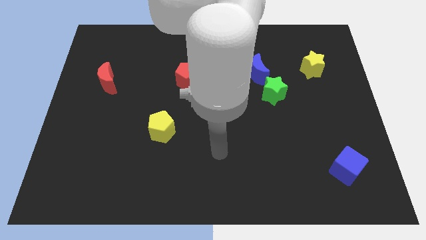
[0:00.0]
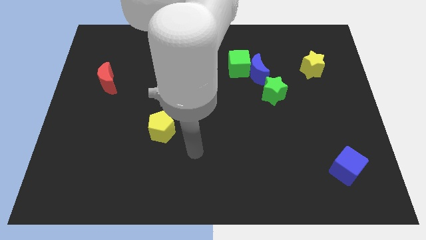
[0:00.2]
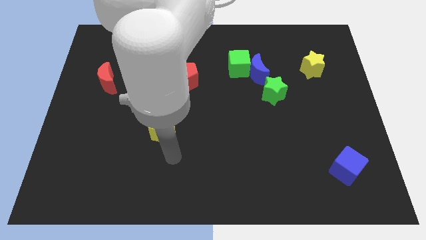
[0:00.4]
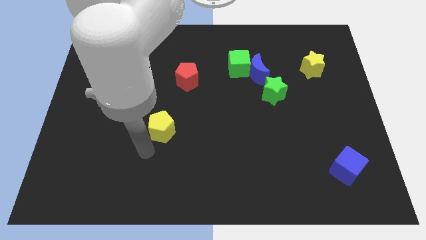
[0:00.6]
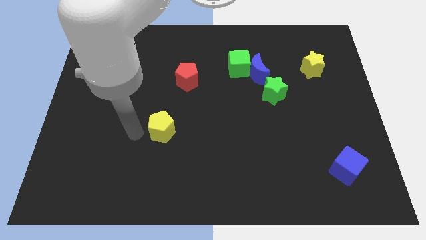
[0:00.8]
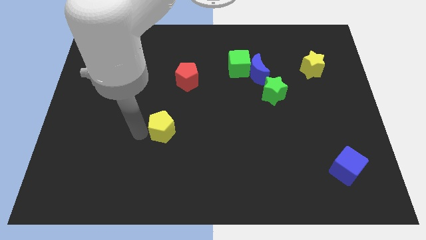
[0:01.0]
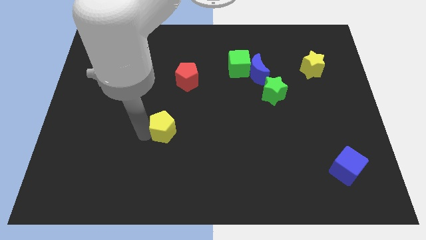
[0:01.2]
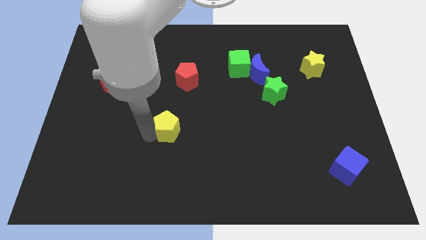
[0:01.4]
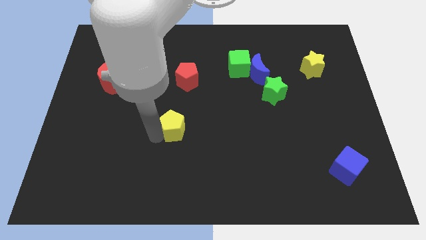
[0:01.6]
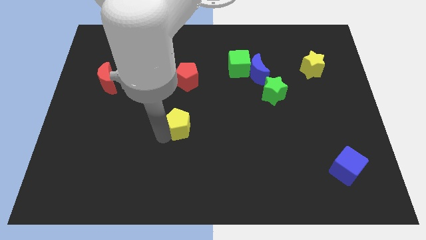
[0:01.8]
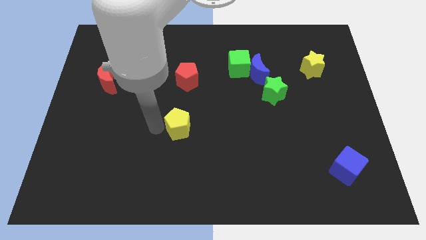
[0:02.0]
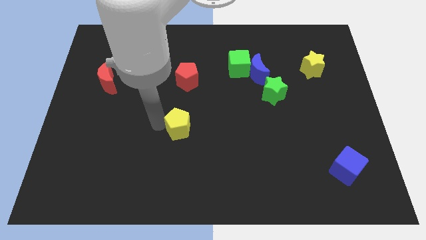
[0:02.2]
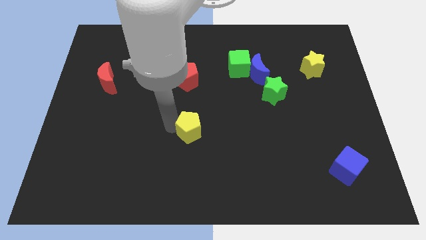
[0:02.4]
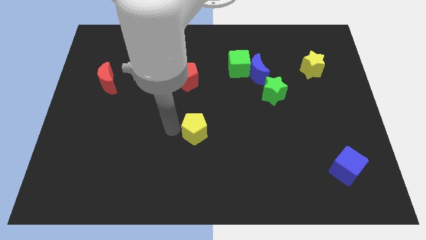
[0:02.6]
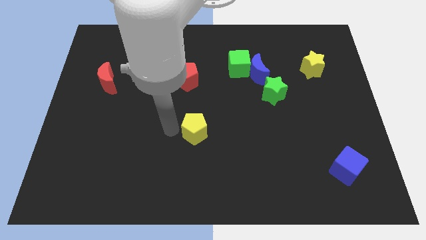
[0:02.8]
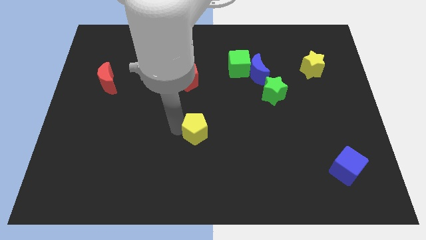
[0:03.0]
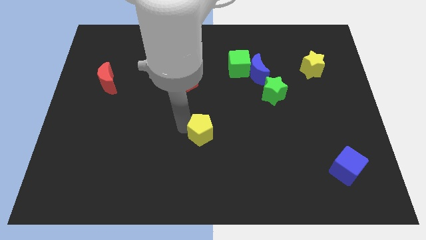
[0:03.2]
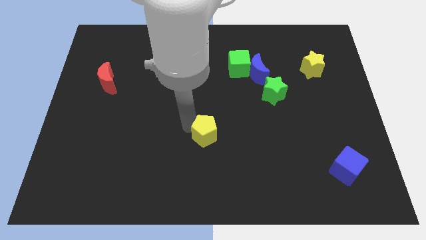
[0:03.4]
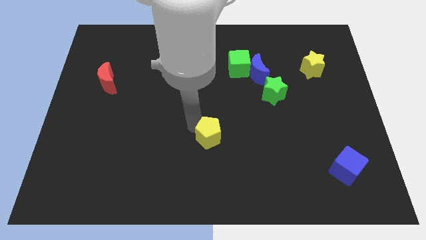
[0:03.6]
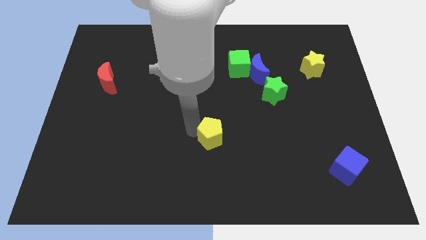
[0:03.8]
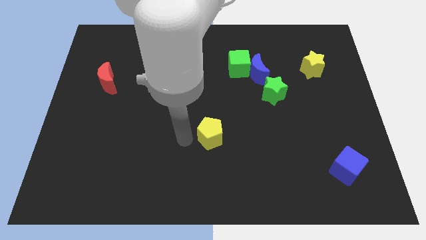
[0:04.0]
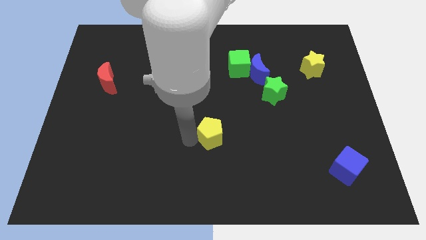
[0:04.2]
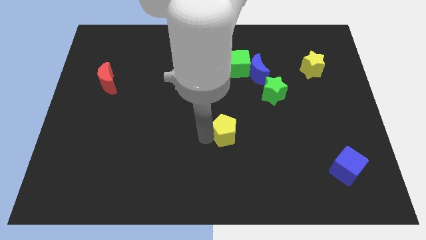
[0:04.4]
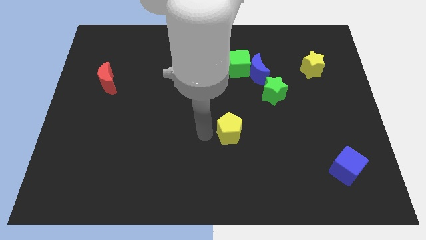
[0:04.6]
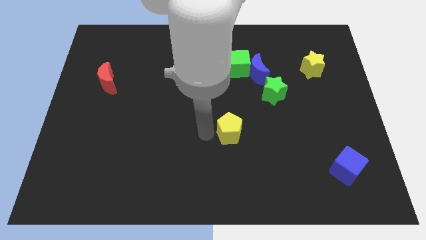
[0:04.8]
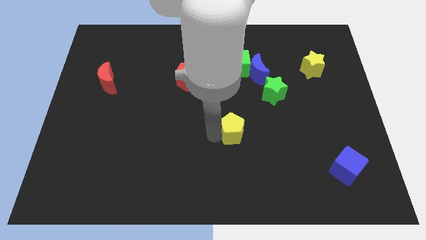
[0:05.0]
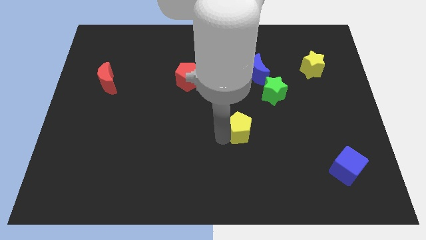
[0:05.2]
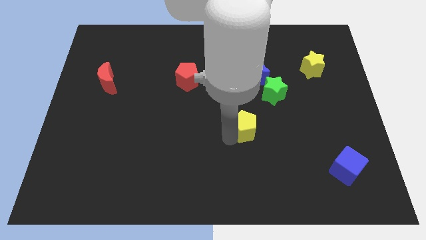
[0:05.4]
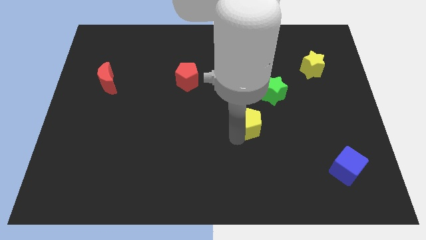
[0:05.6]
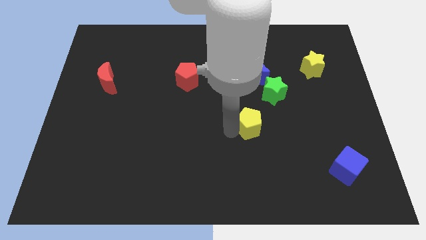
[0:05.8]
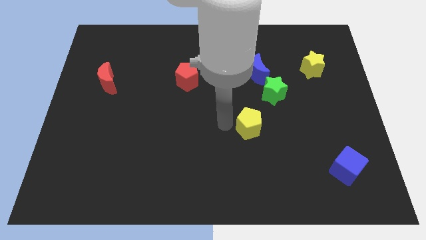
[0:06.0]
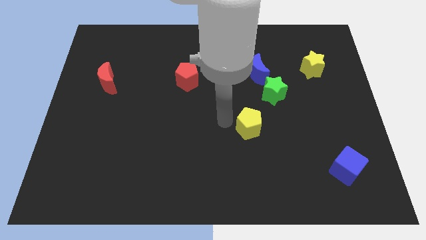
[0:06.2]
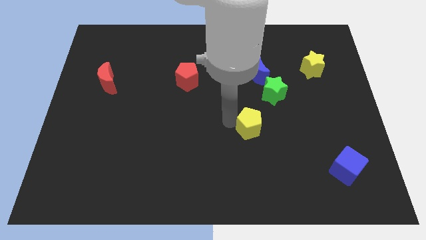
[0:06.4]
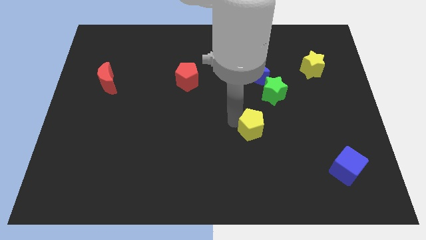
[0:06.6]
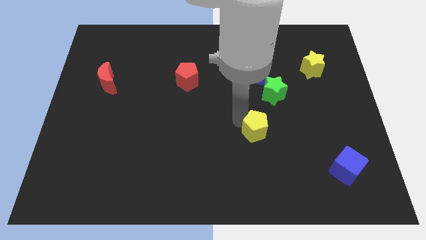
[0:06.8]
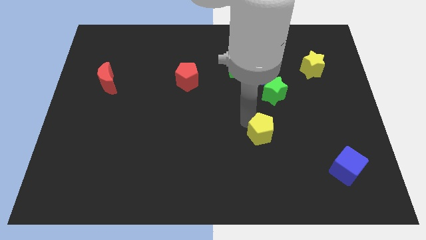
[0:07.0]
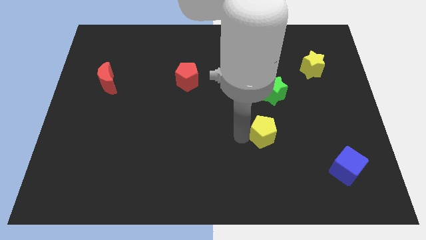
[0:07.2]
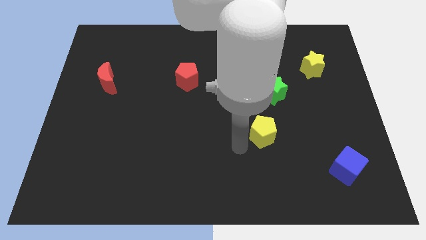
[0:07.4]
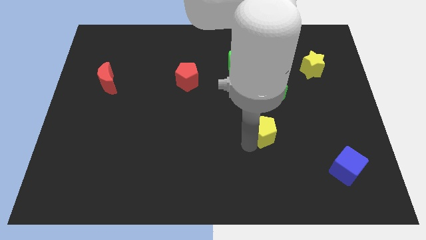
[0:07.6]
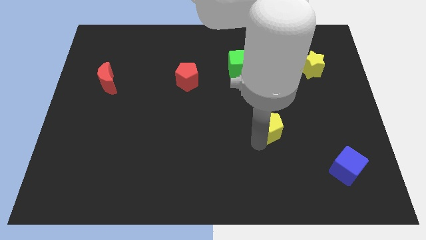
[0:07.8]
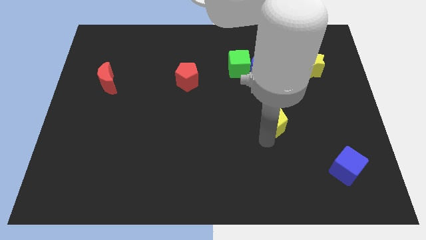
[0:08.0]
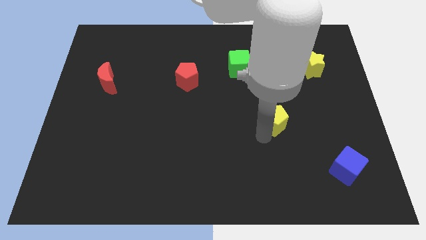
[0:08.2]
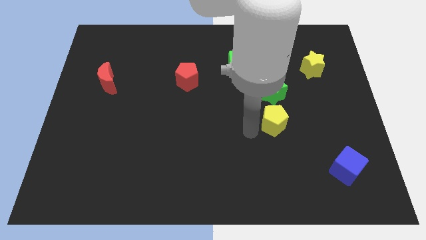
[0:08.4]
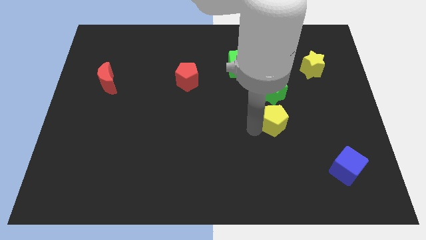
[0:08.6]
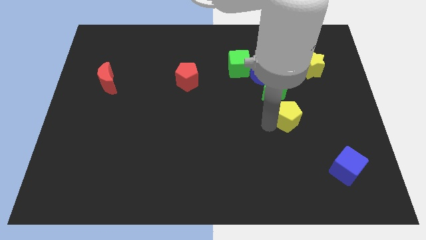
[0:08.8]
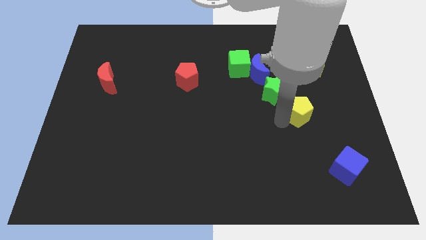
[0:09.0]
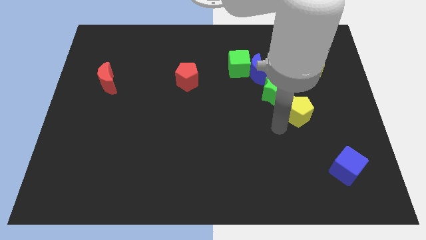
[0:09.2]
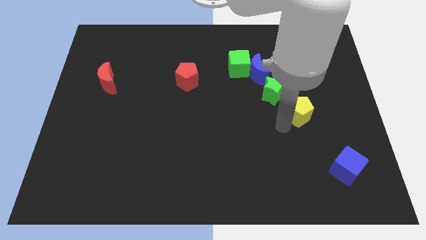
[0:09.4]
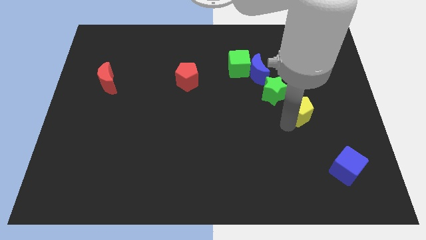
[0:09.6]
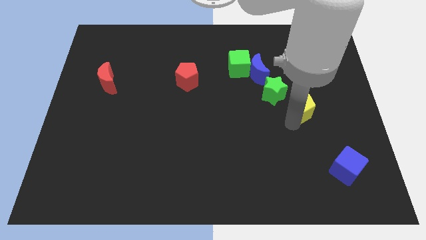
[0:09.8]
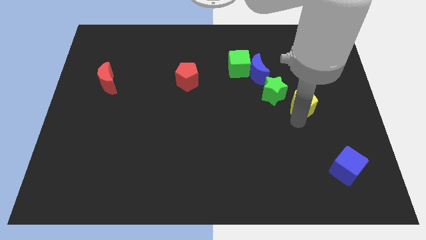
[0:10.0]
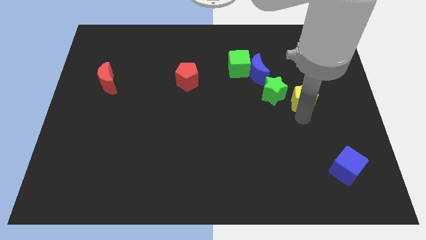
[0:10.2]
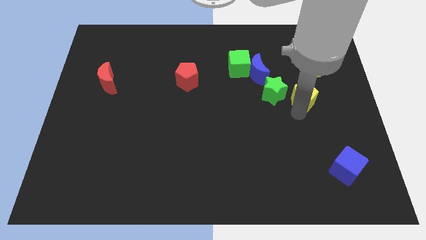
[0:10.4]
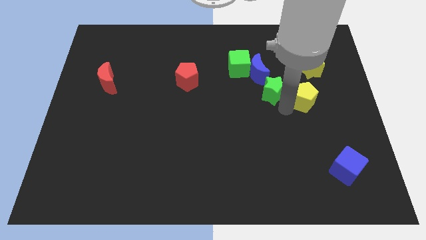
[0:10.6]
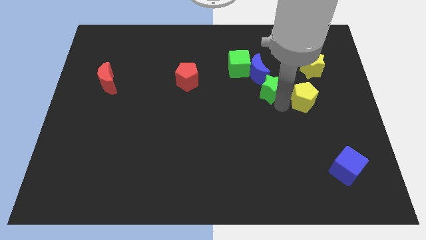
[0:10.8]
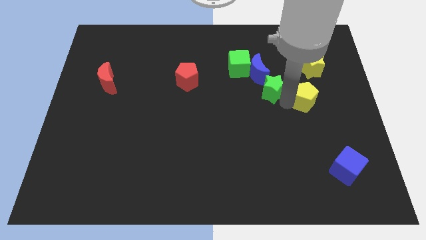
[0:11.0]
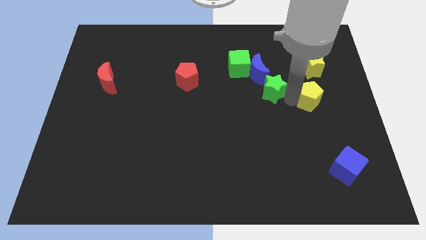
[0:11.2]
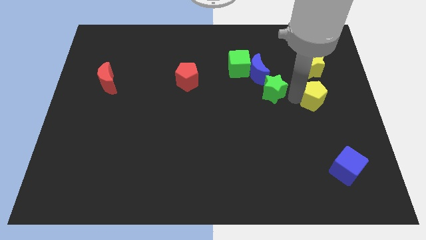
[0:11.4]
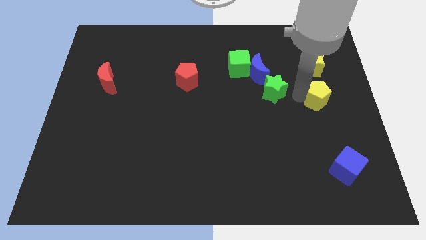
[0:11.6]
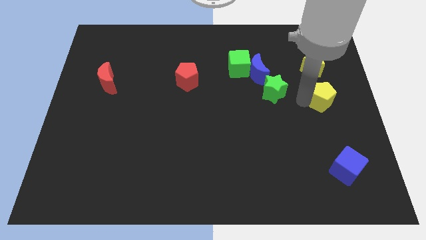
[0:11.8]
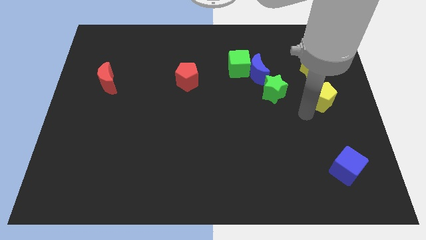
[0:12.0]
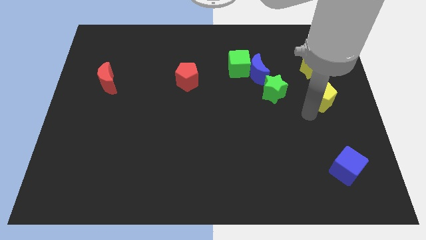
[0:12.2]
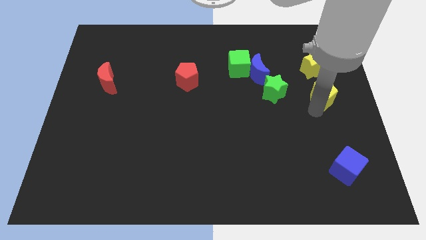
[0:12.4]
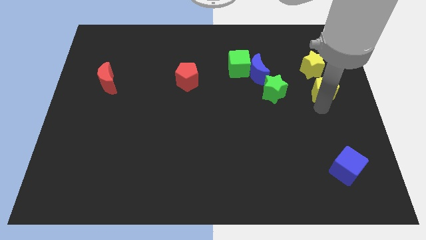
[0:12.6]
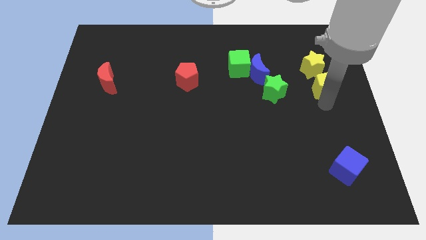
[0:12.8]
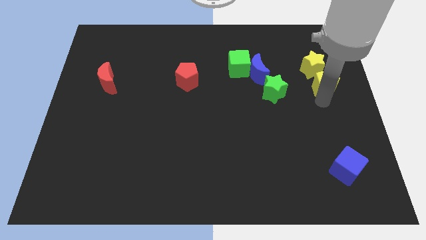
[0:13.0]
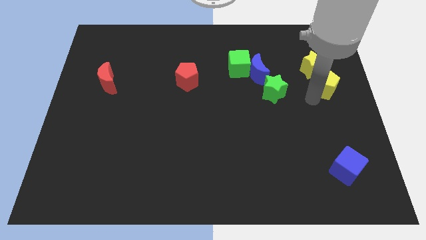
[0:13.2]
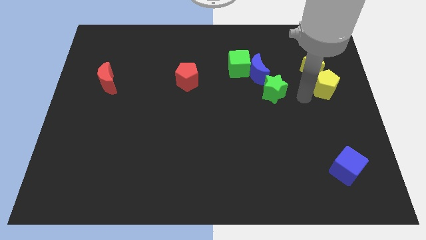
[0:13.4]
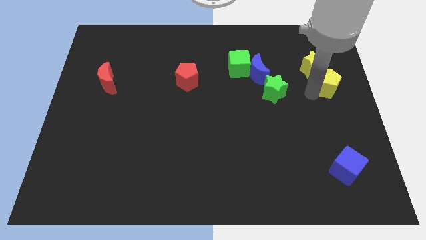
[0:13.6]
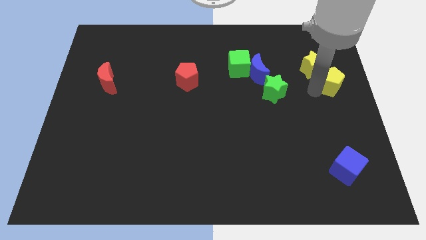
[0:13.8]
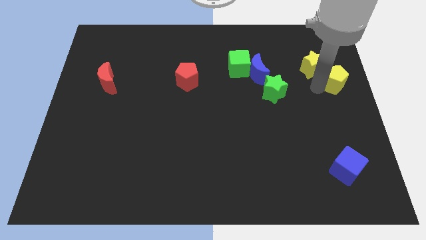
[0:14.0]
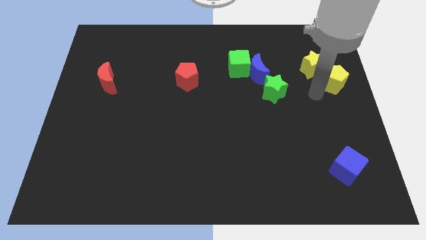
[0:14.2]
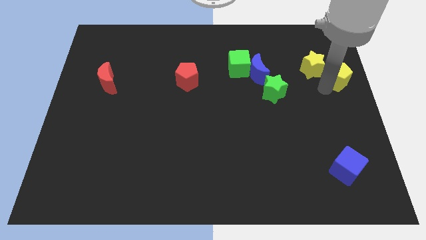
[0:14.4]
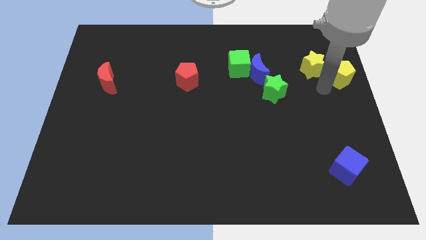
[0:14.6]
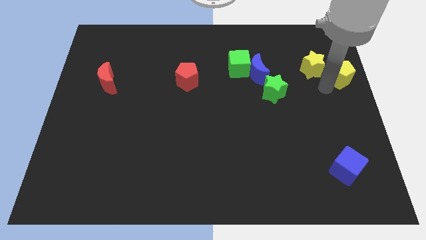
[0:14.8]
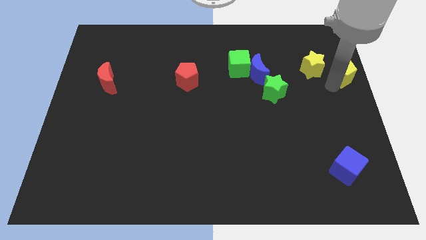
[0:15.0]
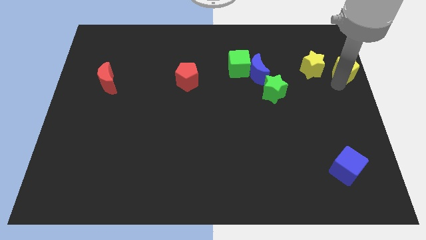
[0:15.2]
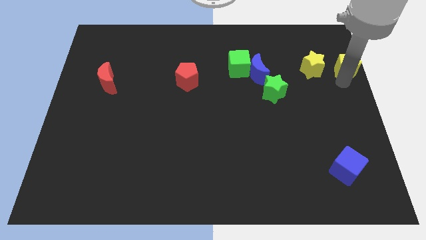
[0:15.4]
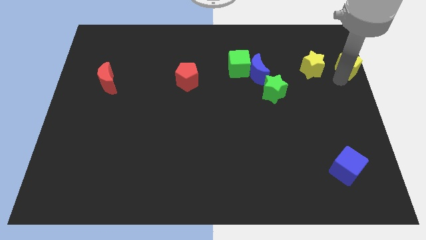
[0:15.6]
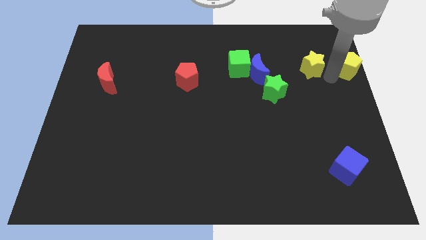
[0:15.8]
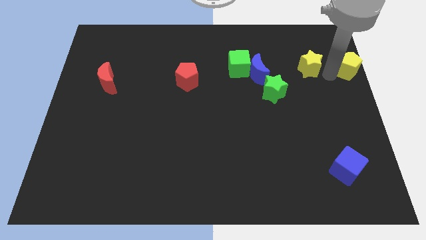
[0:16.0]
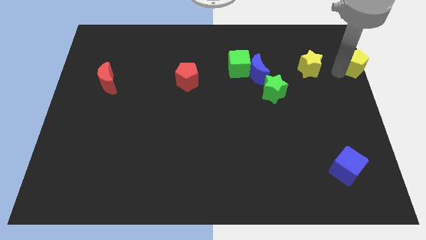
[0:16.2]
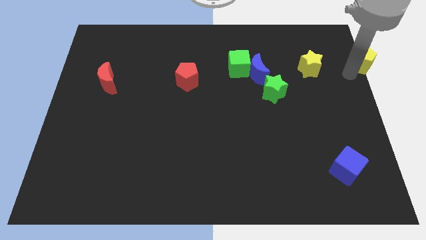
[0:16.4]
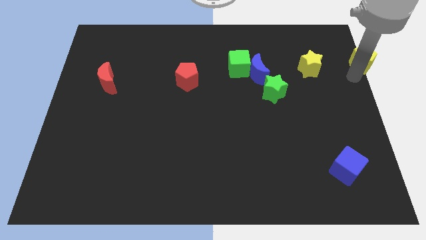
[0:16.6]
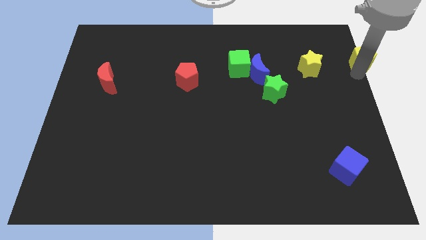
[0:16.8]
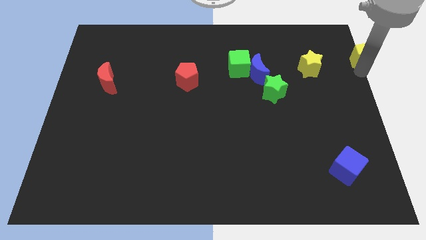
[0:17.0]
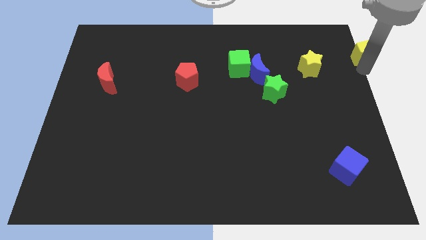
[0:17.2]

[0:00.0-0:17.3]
put the yellow pentagon to the top right of the board
